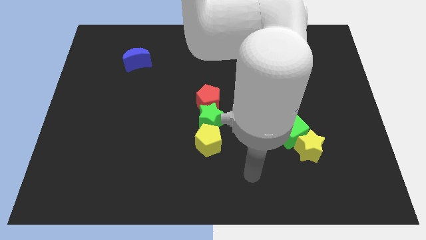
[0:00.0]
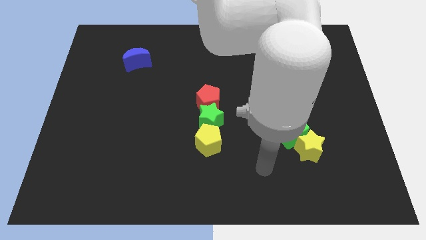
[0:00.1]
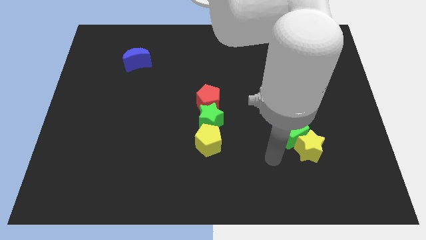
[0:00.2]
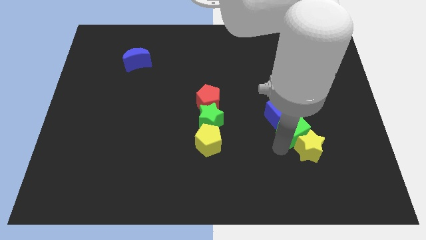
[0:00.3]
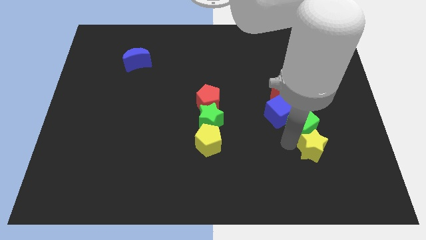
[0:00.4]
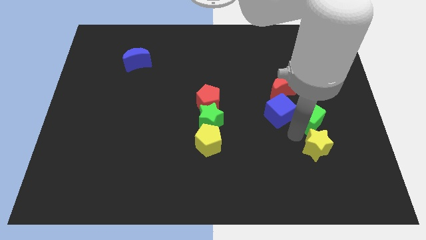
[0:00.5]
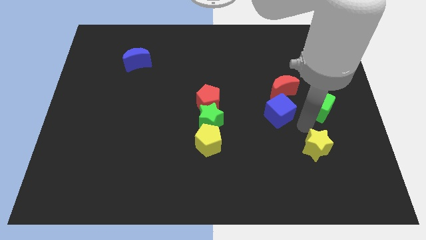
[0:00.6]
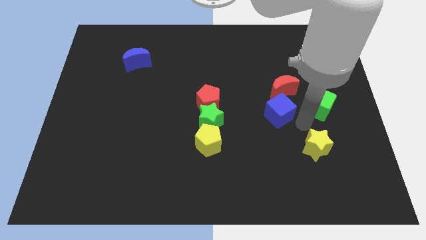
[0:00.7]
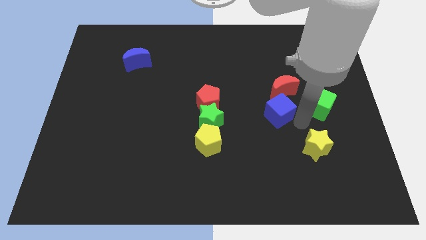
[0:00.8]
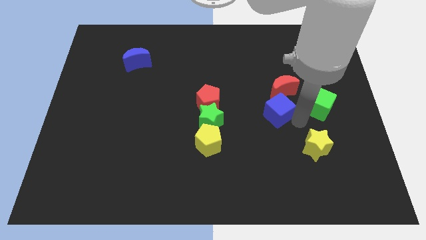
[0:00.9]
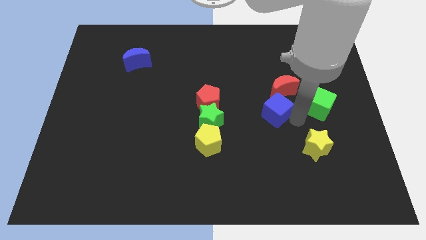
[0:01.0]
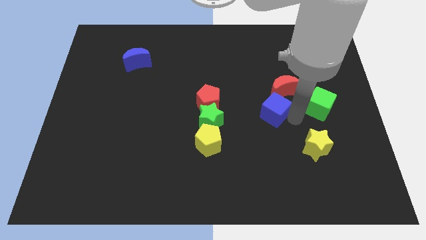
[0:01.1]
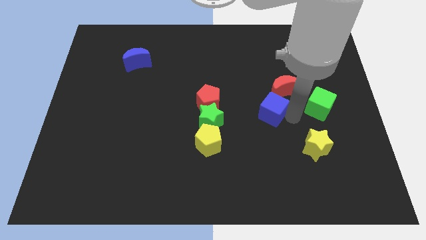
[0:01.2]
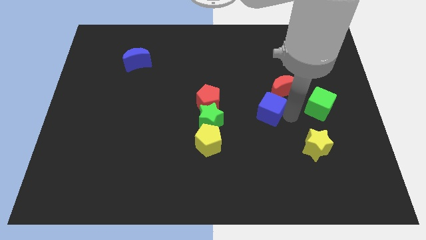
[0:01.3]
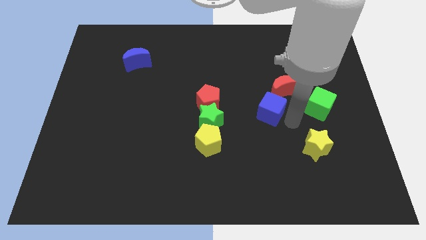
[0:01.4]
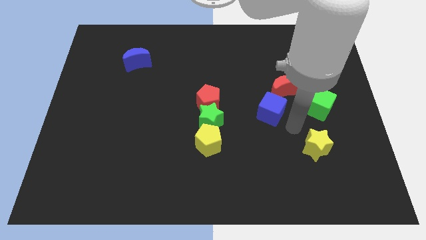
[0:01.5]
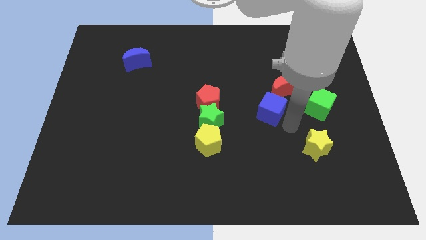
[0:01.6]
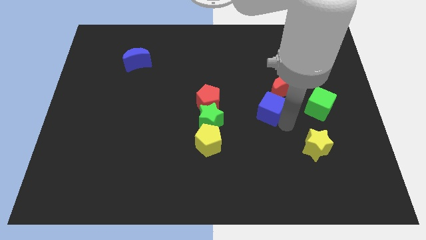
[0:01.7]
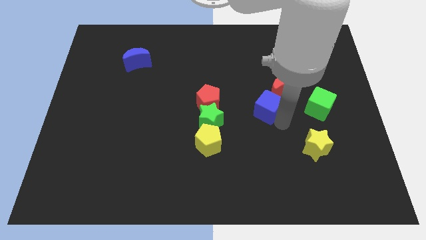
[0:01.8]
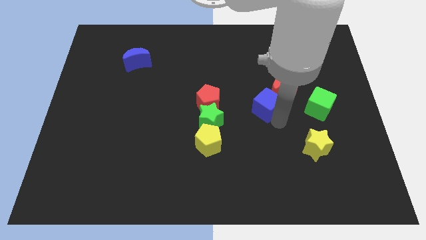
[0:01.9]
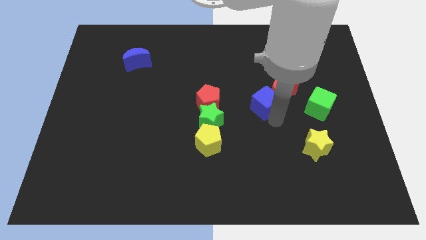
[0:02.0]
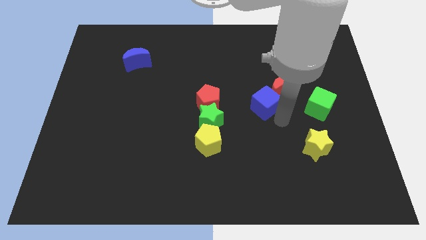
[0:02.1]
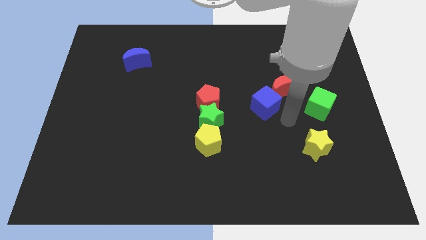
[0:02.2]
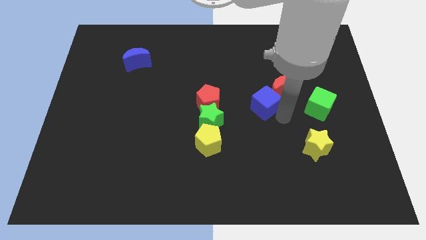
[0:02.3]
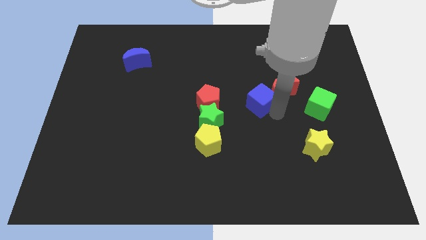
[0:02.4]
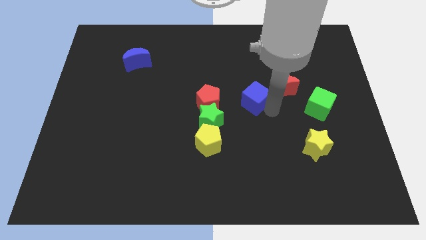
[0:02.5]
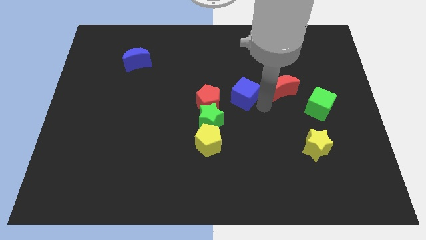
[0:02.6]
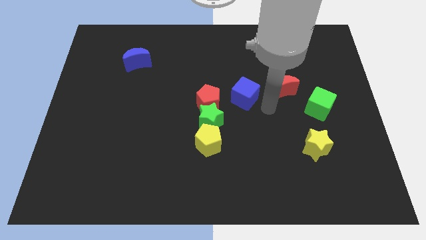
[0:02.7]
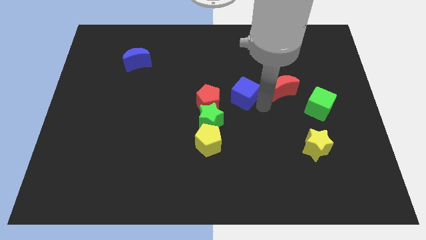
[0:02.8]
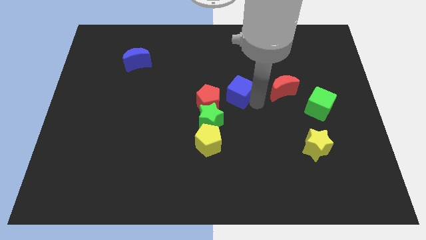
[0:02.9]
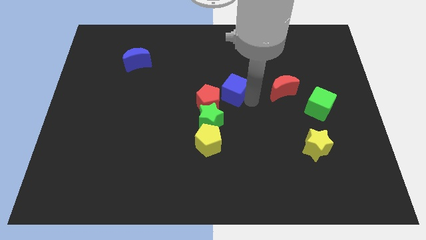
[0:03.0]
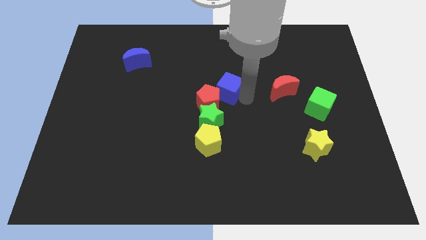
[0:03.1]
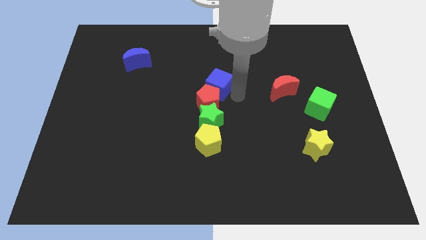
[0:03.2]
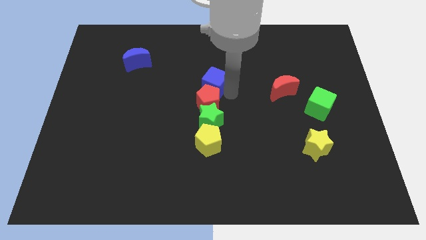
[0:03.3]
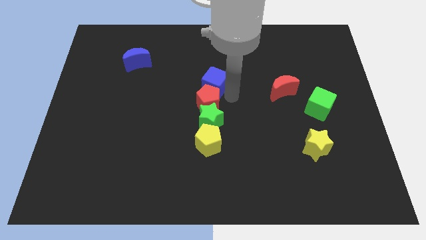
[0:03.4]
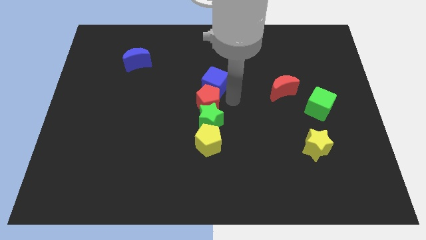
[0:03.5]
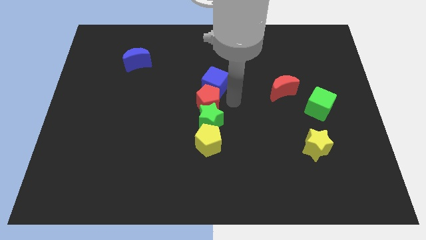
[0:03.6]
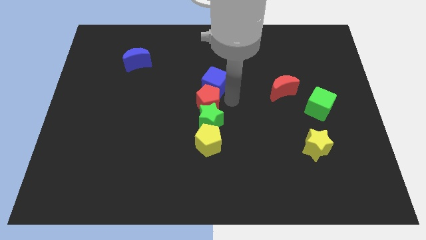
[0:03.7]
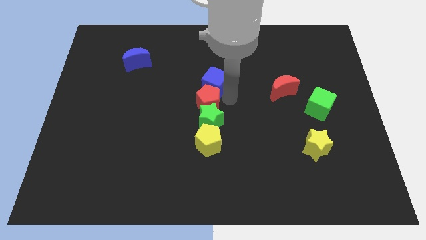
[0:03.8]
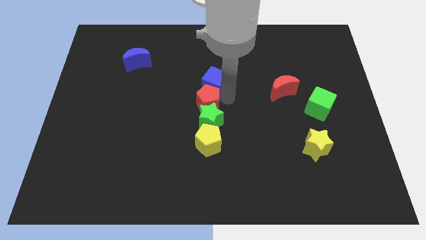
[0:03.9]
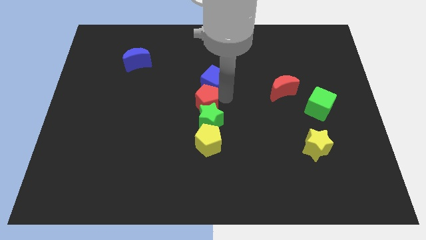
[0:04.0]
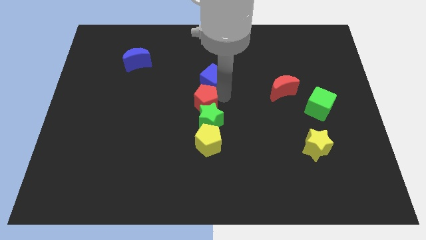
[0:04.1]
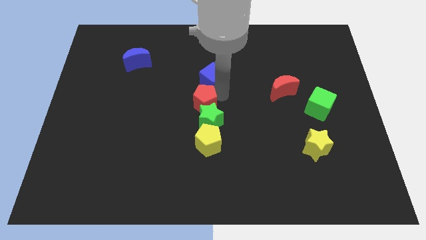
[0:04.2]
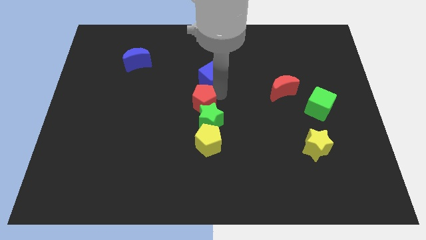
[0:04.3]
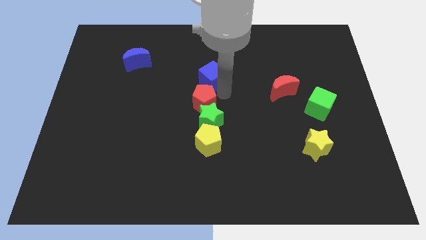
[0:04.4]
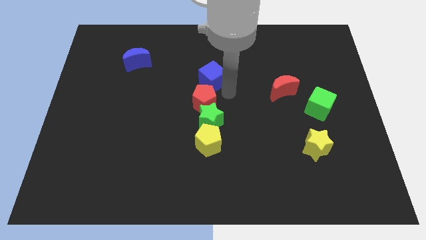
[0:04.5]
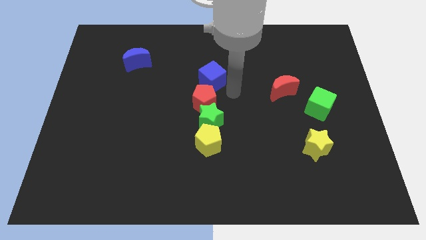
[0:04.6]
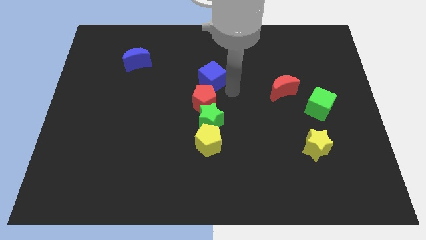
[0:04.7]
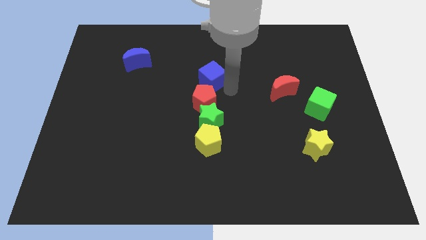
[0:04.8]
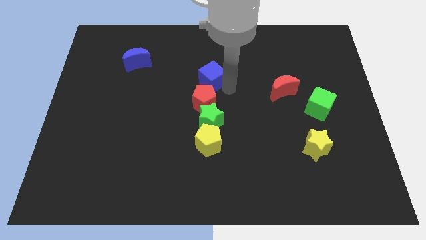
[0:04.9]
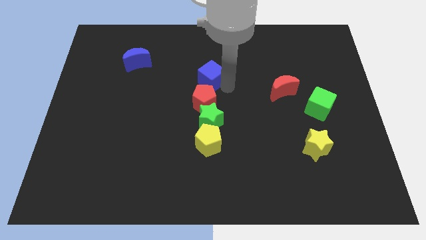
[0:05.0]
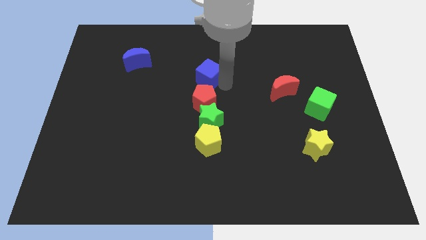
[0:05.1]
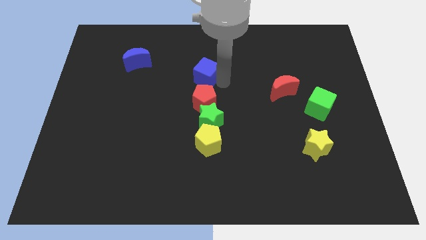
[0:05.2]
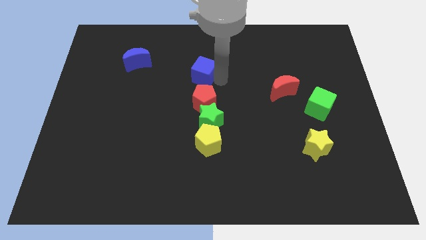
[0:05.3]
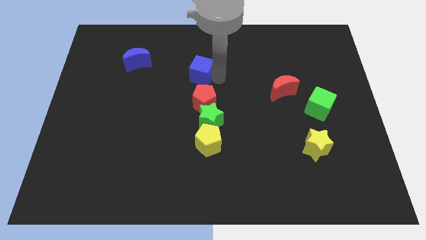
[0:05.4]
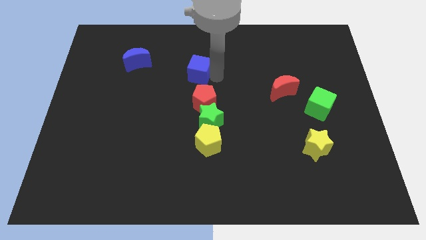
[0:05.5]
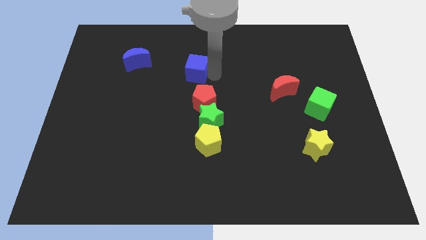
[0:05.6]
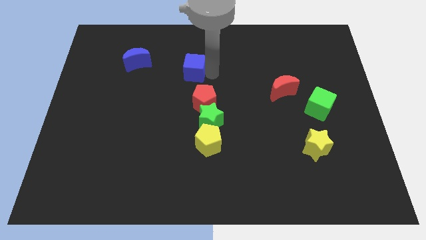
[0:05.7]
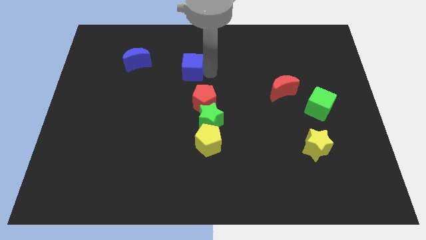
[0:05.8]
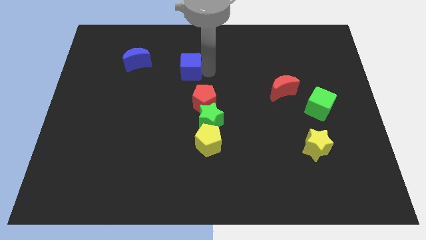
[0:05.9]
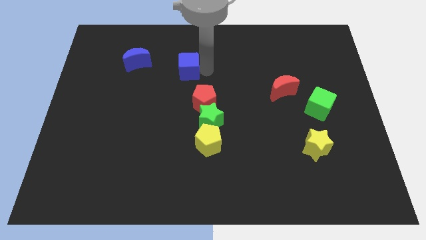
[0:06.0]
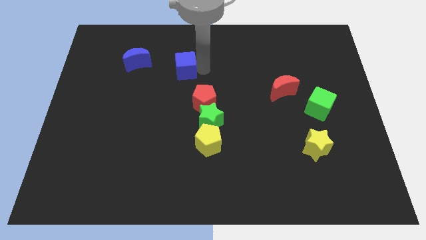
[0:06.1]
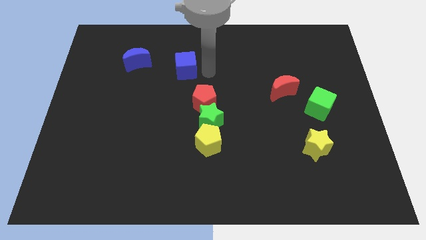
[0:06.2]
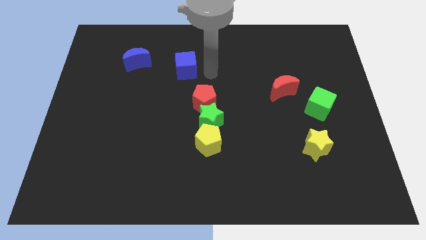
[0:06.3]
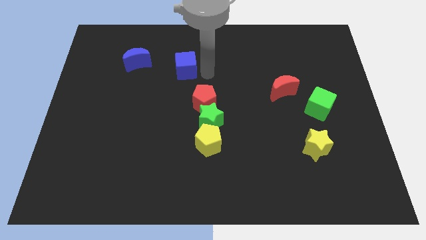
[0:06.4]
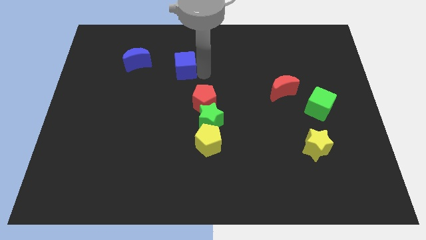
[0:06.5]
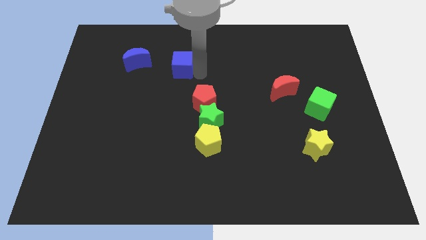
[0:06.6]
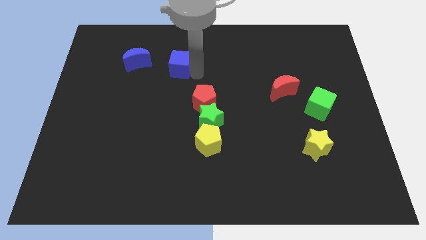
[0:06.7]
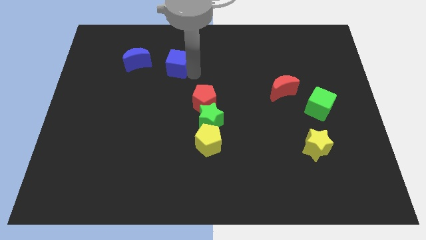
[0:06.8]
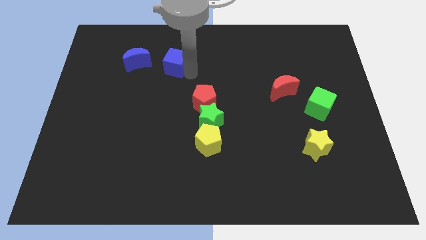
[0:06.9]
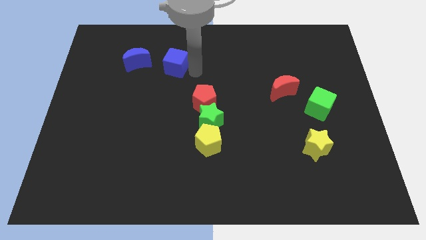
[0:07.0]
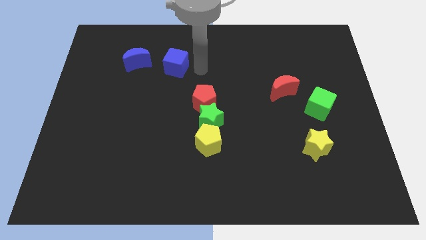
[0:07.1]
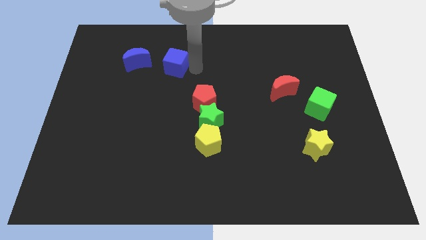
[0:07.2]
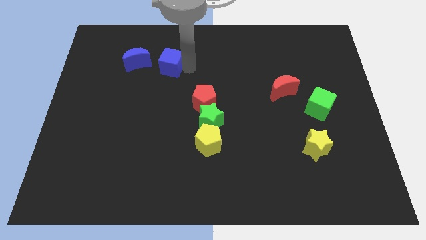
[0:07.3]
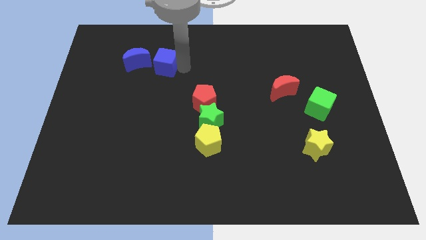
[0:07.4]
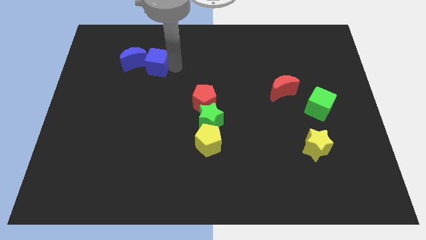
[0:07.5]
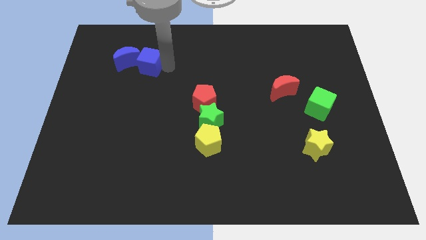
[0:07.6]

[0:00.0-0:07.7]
slide the blue cube next to the blue moon
